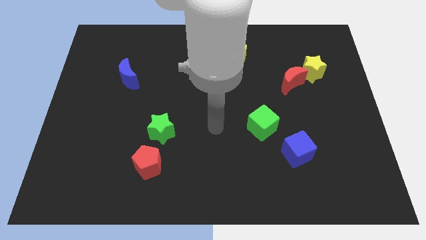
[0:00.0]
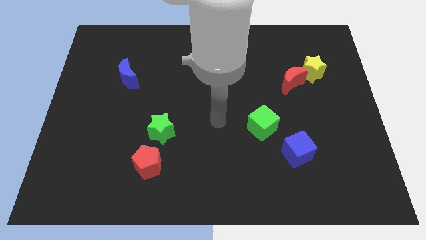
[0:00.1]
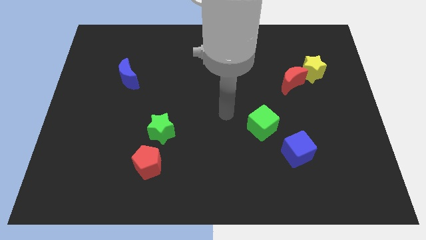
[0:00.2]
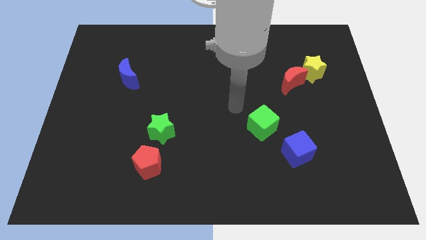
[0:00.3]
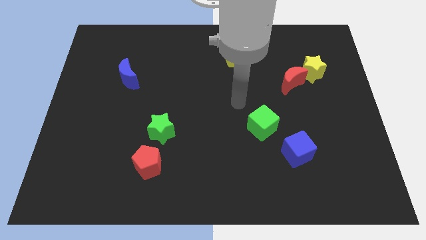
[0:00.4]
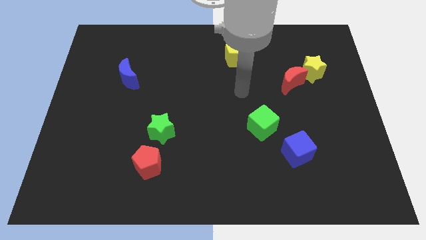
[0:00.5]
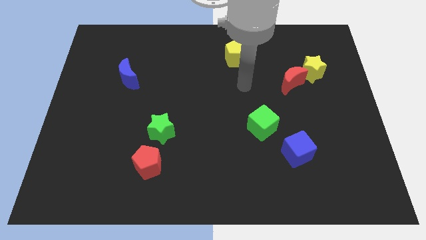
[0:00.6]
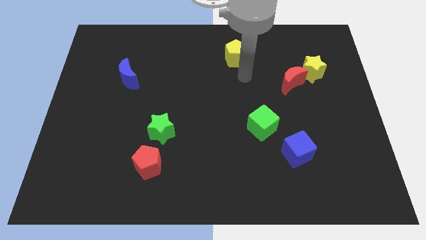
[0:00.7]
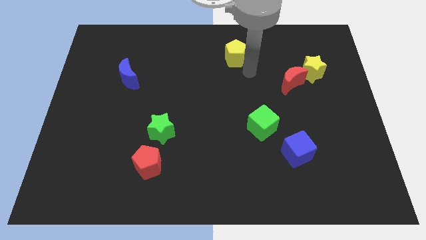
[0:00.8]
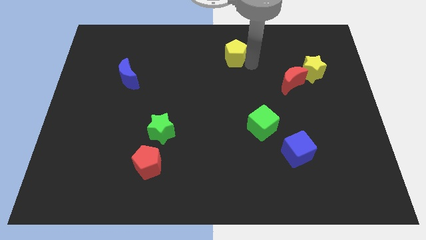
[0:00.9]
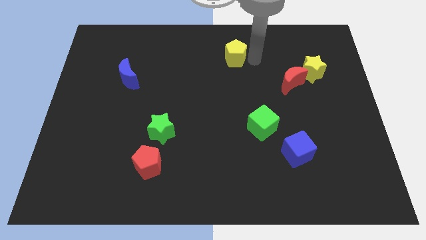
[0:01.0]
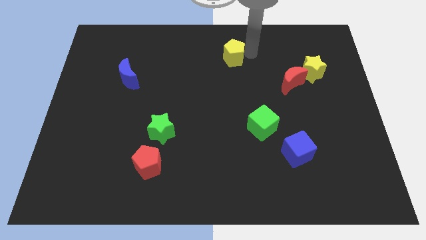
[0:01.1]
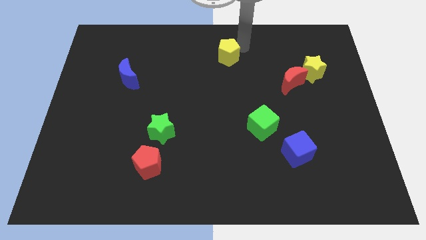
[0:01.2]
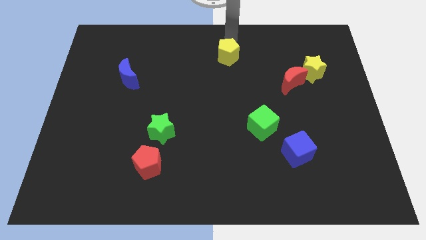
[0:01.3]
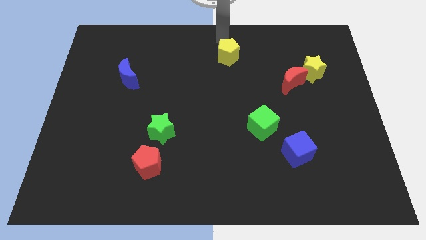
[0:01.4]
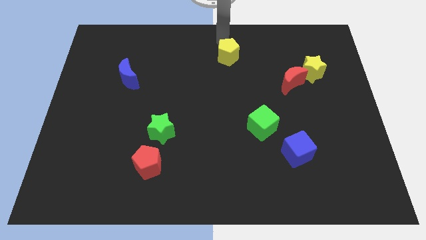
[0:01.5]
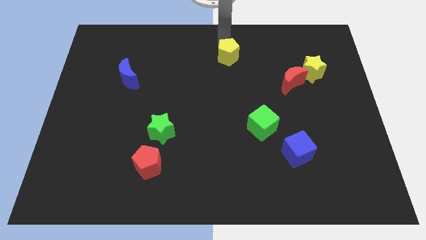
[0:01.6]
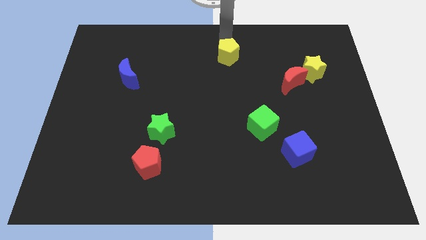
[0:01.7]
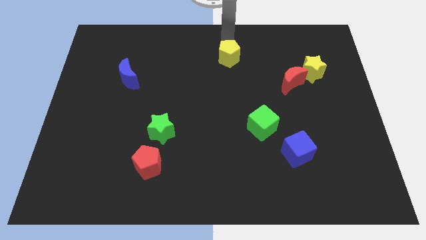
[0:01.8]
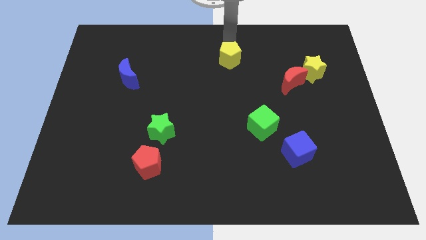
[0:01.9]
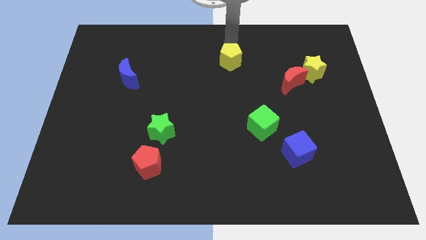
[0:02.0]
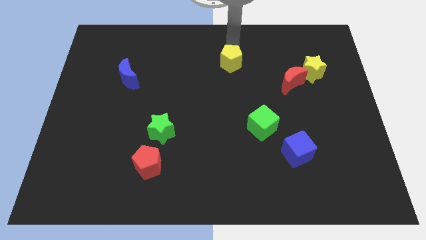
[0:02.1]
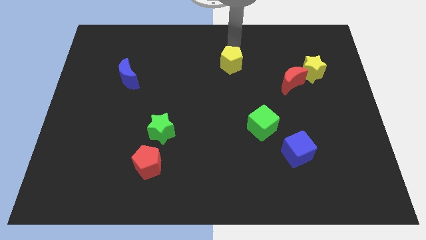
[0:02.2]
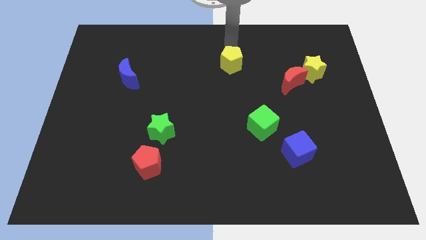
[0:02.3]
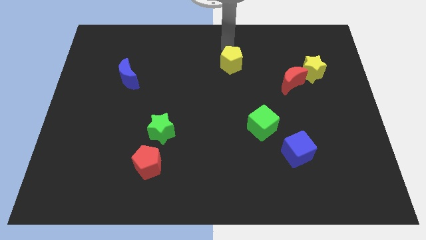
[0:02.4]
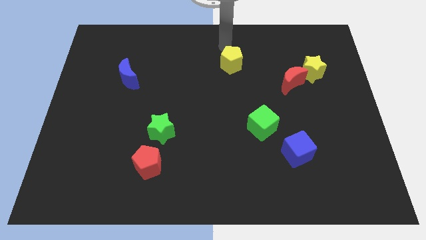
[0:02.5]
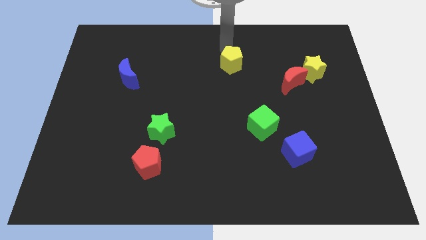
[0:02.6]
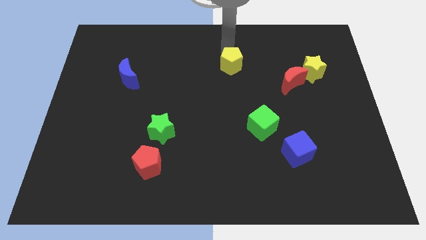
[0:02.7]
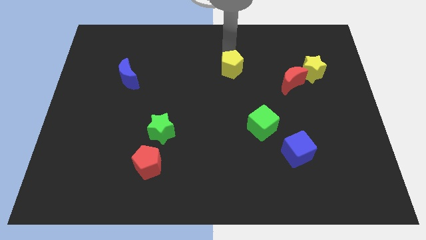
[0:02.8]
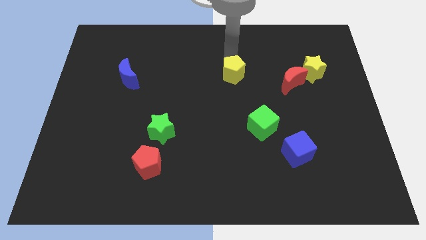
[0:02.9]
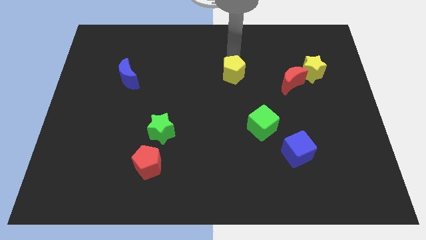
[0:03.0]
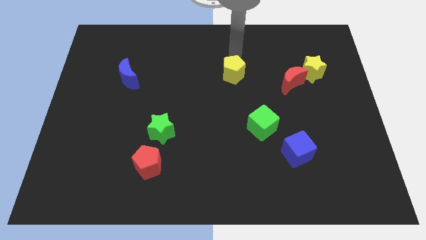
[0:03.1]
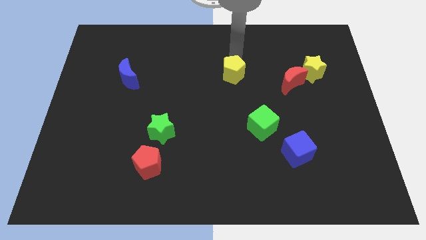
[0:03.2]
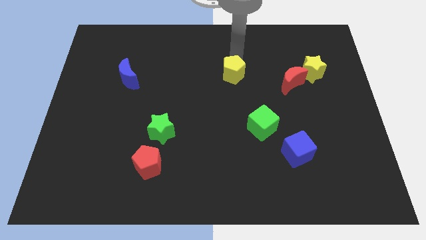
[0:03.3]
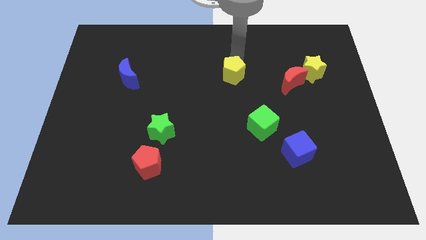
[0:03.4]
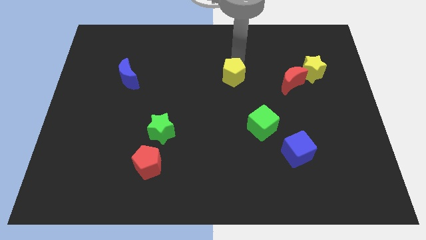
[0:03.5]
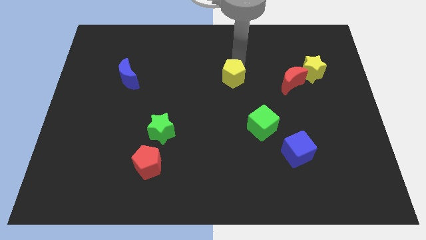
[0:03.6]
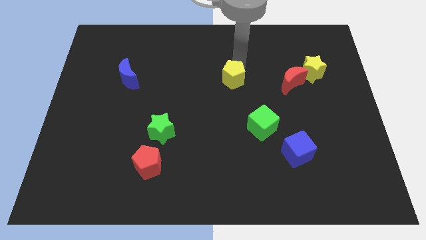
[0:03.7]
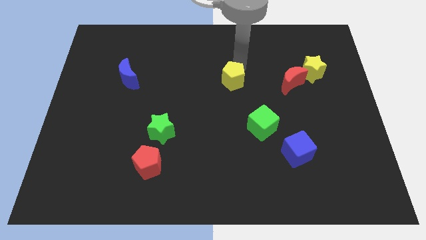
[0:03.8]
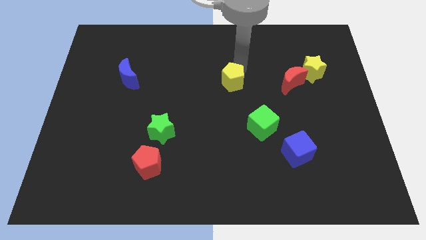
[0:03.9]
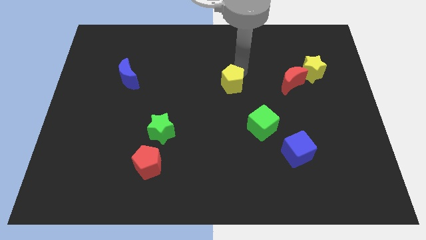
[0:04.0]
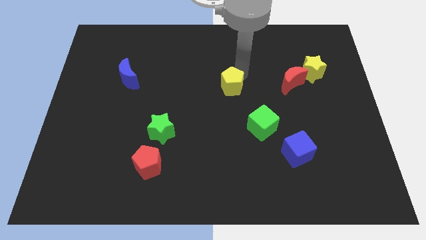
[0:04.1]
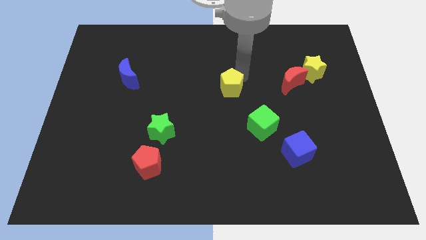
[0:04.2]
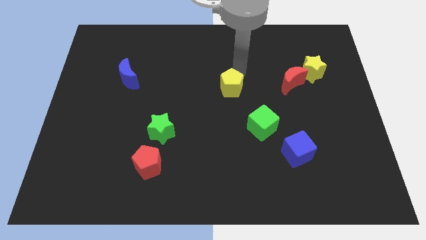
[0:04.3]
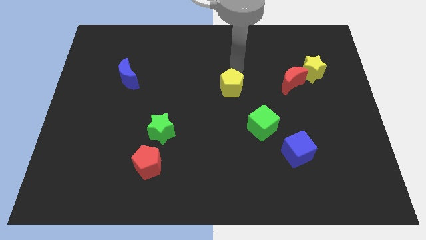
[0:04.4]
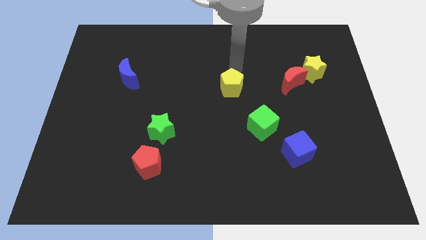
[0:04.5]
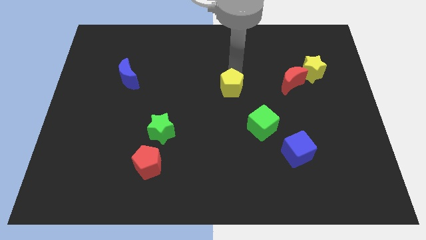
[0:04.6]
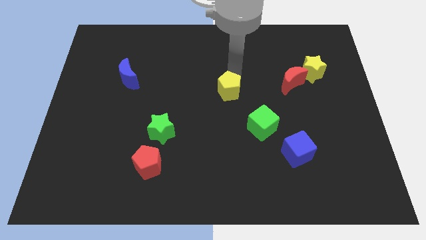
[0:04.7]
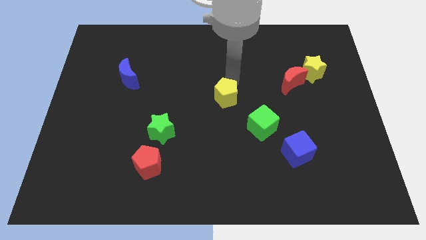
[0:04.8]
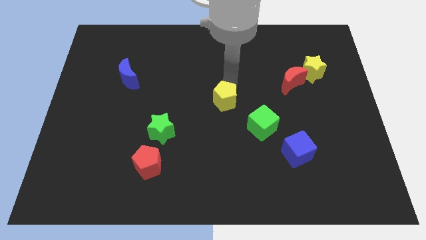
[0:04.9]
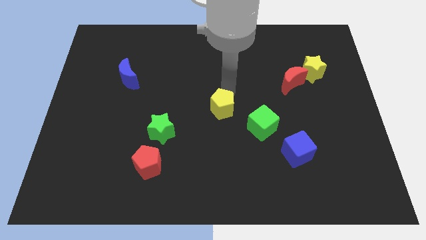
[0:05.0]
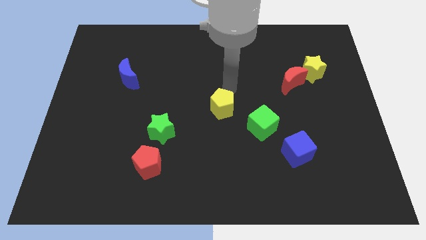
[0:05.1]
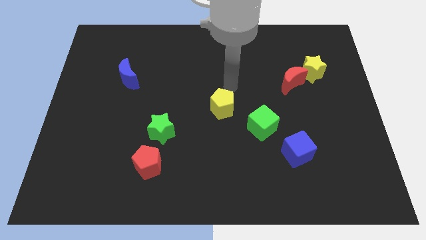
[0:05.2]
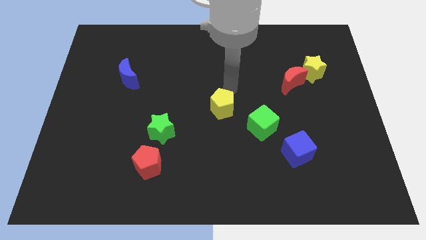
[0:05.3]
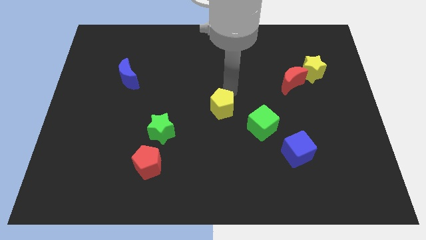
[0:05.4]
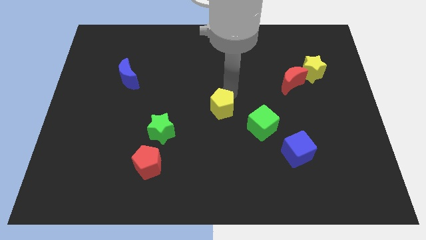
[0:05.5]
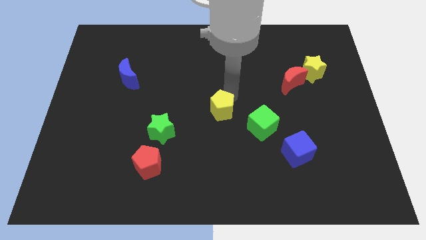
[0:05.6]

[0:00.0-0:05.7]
slide the yellow pentagon just left of the green cube

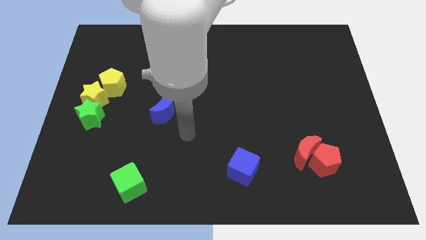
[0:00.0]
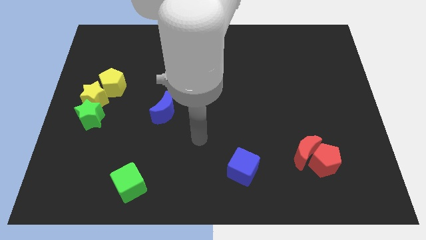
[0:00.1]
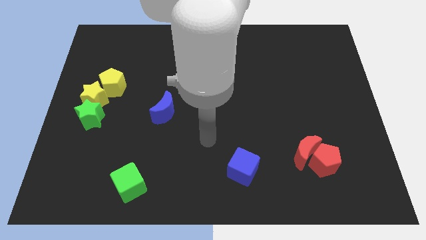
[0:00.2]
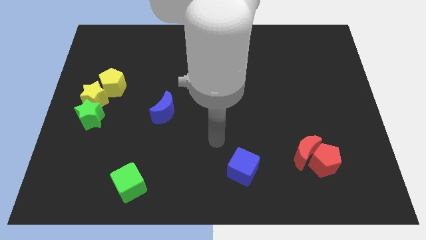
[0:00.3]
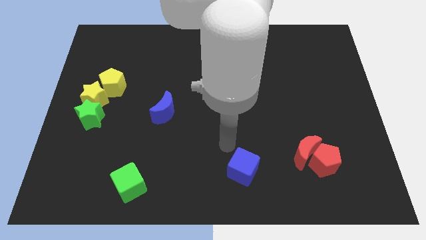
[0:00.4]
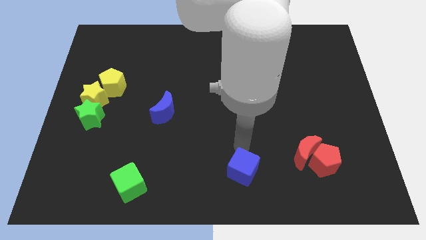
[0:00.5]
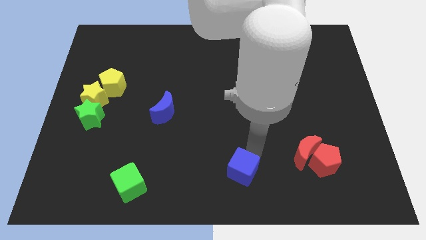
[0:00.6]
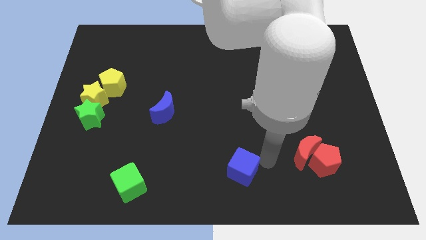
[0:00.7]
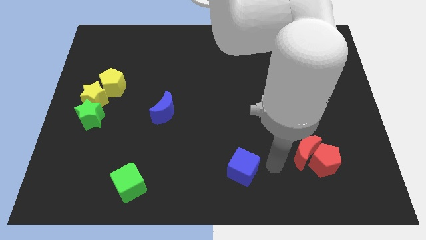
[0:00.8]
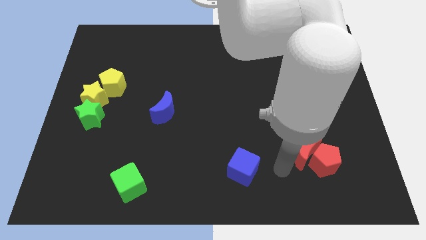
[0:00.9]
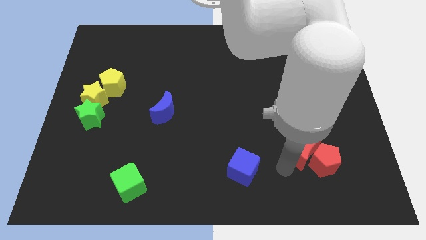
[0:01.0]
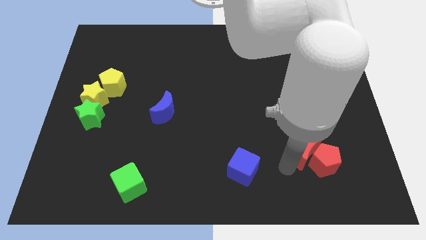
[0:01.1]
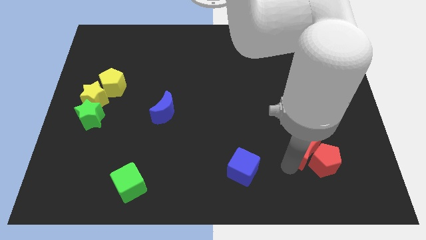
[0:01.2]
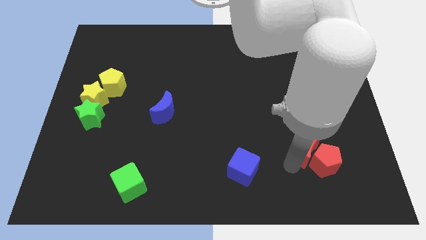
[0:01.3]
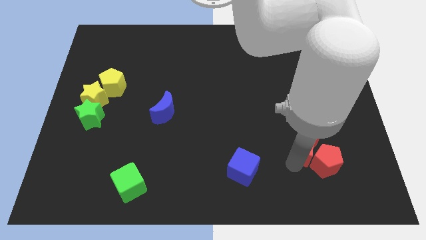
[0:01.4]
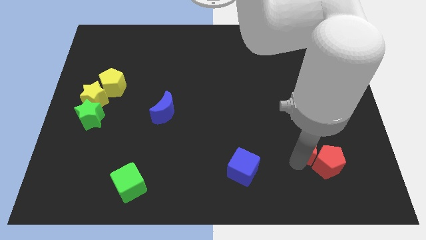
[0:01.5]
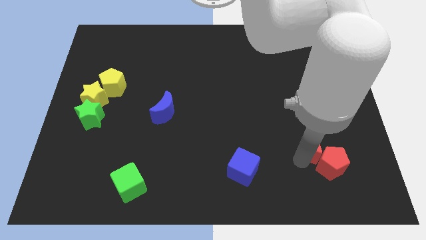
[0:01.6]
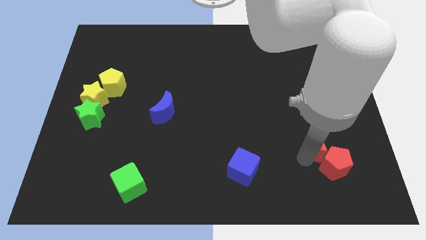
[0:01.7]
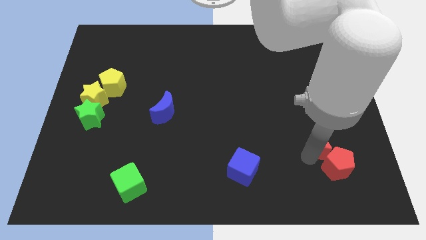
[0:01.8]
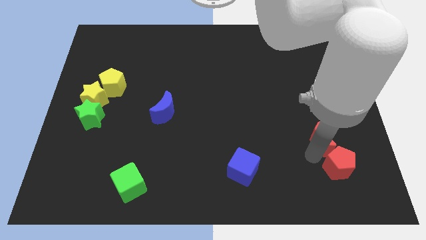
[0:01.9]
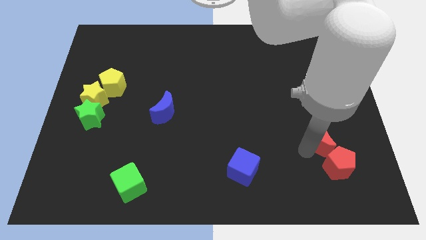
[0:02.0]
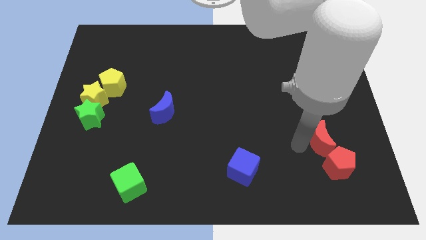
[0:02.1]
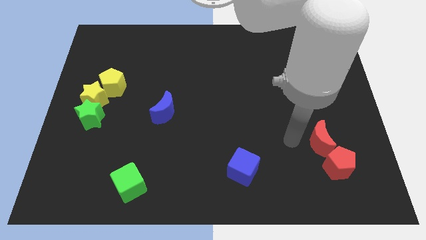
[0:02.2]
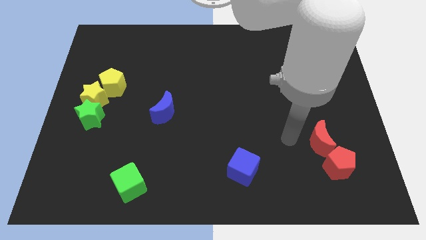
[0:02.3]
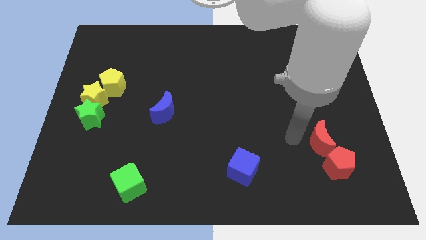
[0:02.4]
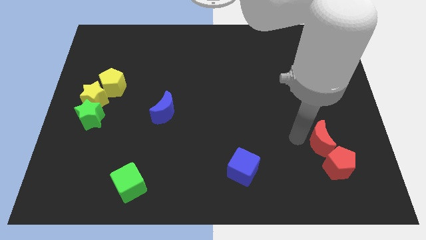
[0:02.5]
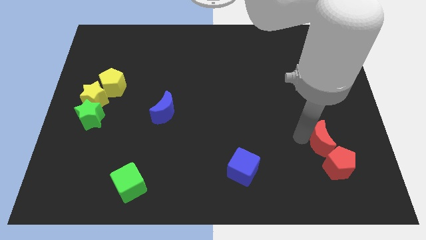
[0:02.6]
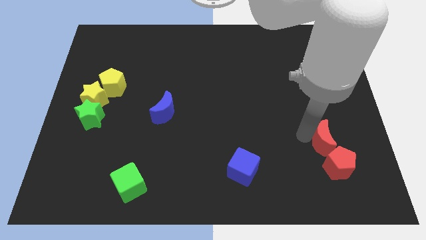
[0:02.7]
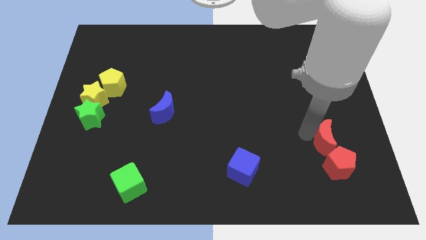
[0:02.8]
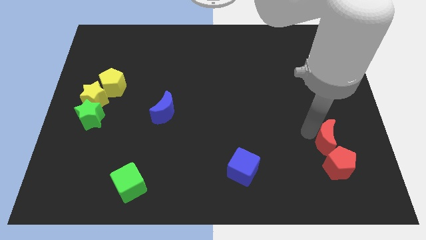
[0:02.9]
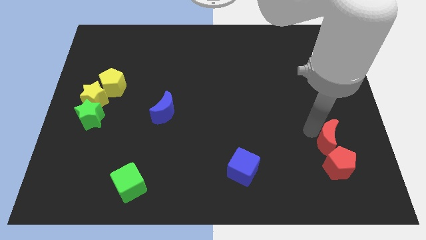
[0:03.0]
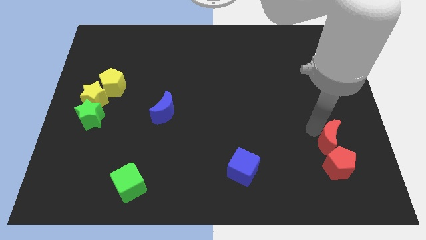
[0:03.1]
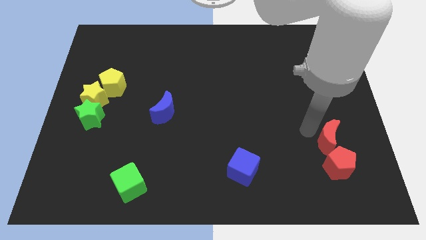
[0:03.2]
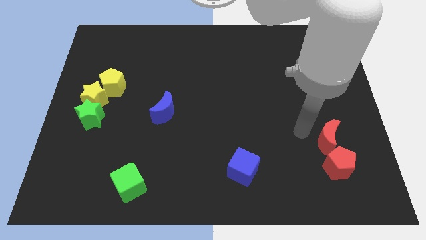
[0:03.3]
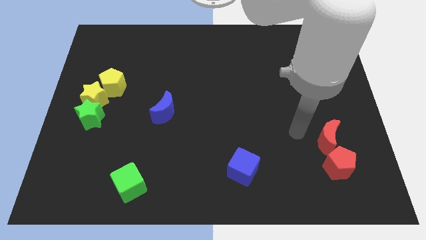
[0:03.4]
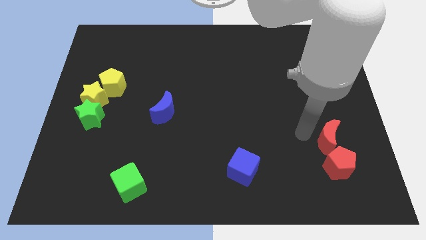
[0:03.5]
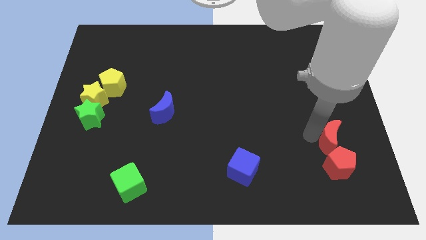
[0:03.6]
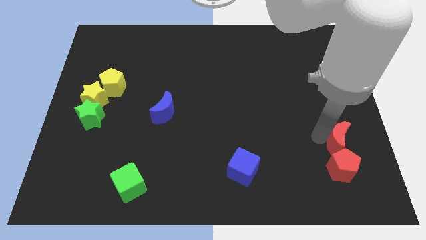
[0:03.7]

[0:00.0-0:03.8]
push the red moon diagonally up and to the right of the red pentagon
